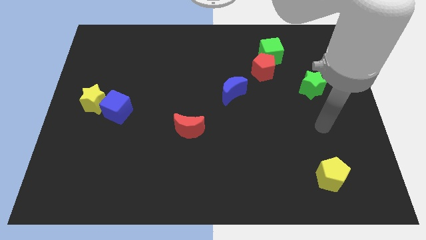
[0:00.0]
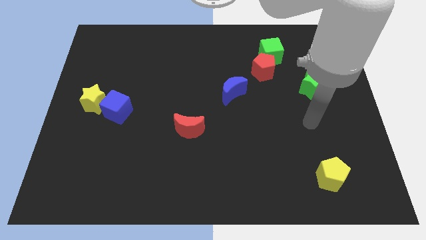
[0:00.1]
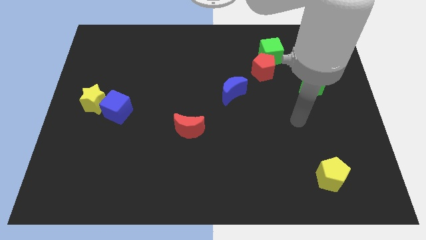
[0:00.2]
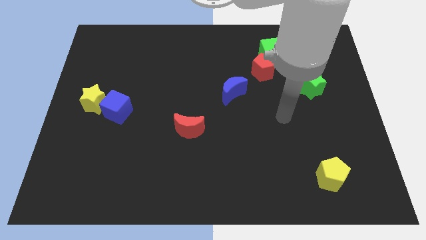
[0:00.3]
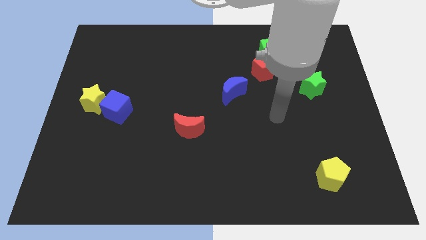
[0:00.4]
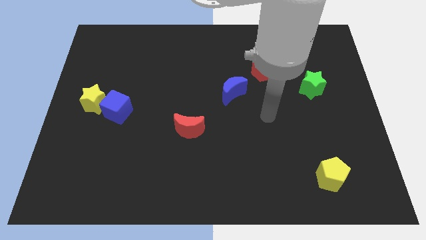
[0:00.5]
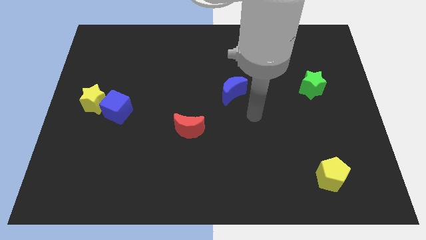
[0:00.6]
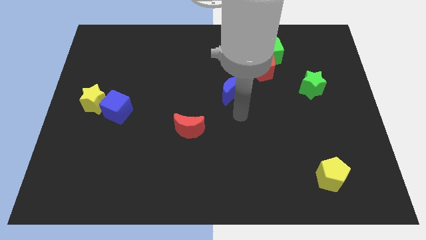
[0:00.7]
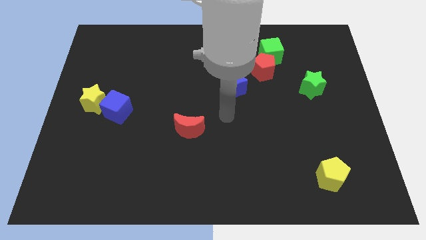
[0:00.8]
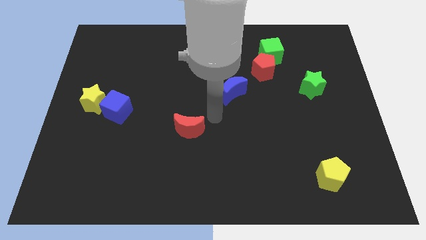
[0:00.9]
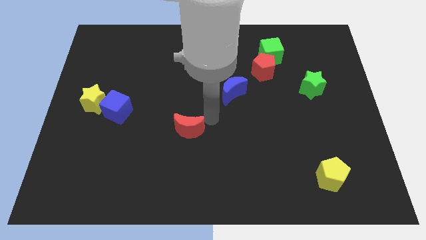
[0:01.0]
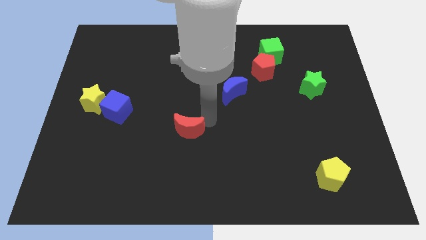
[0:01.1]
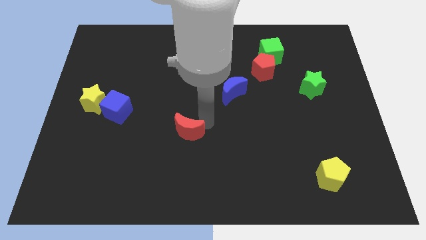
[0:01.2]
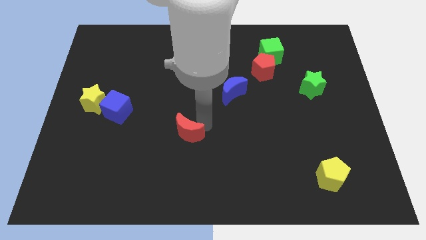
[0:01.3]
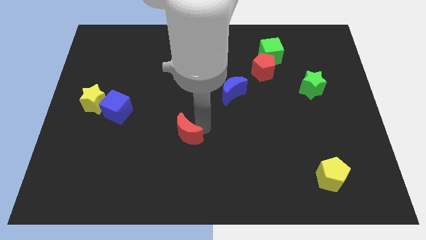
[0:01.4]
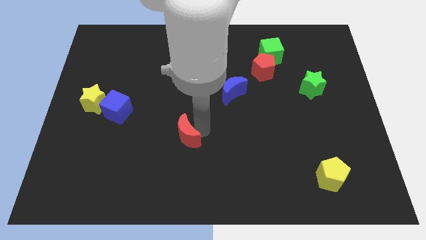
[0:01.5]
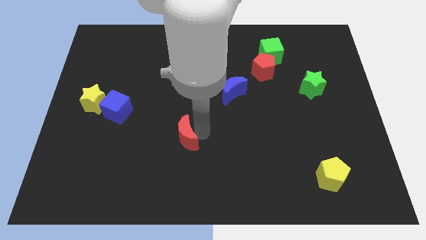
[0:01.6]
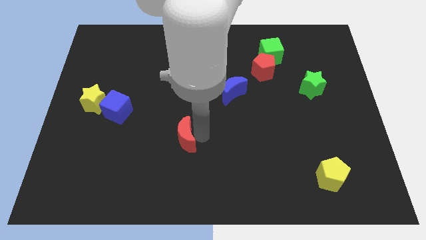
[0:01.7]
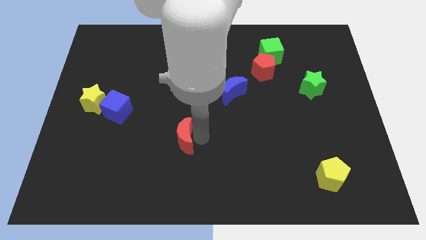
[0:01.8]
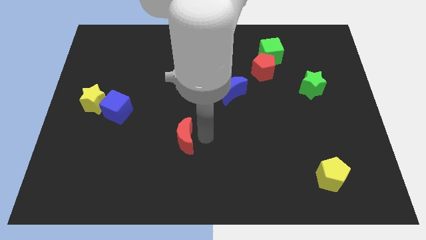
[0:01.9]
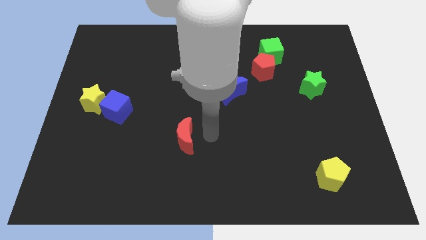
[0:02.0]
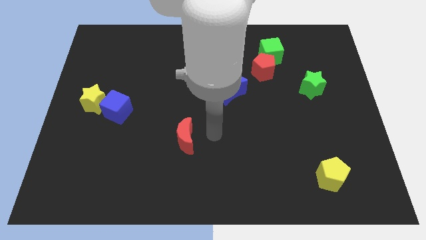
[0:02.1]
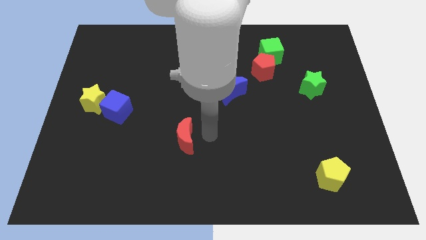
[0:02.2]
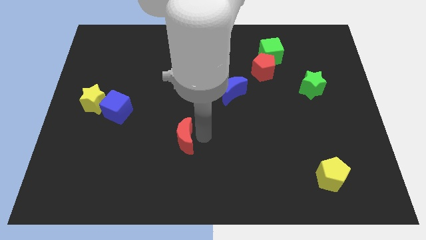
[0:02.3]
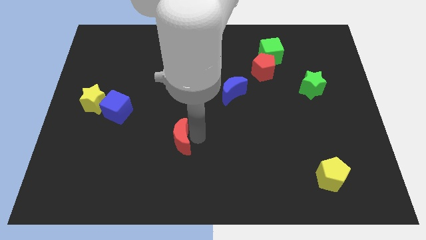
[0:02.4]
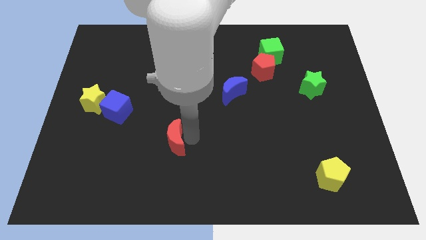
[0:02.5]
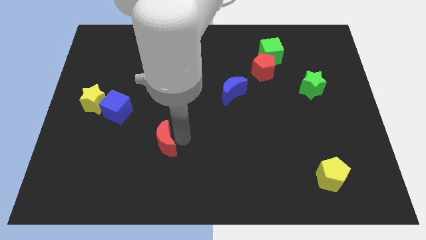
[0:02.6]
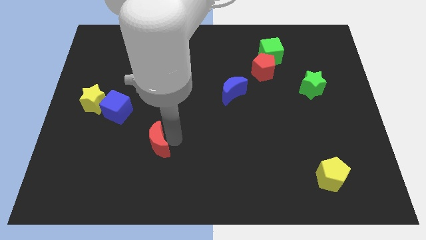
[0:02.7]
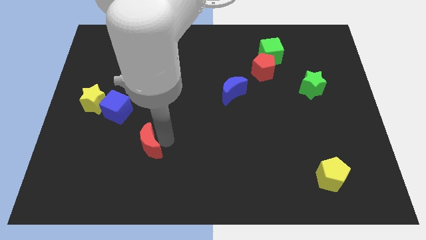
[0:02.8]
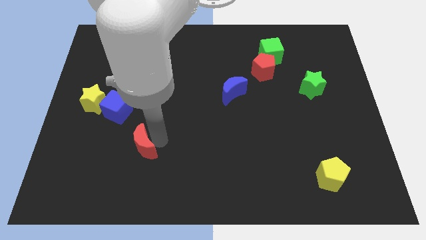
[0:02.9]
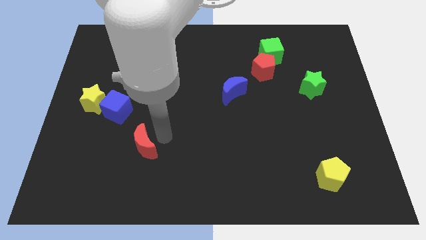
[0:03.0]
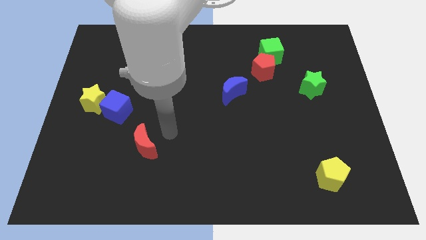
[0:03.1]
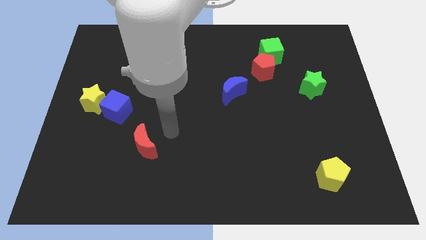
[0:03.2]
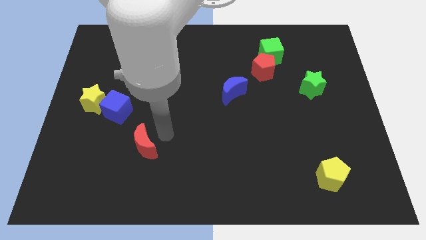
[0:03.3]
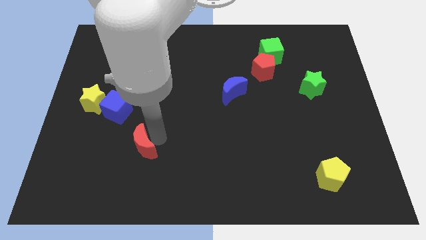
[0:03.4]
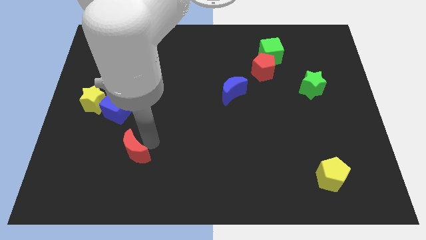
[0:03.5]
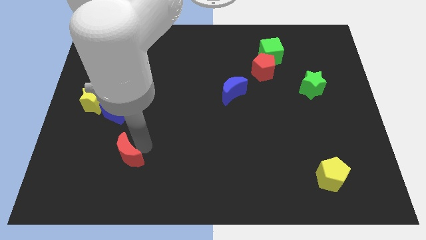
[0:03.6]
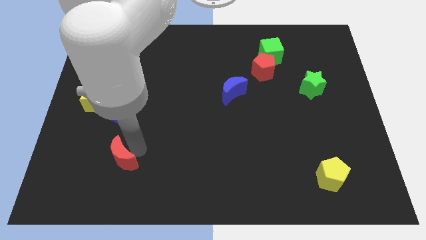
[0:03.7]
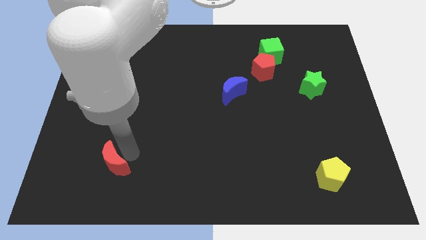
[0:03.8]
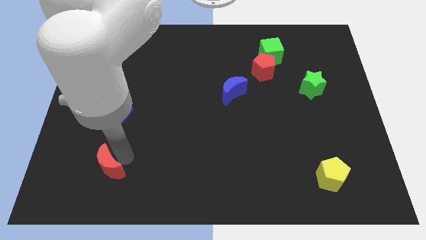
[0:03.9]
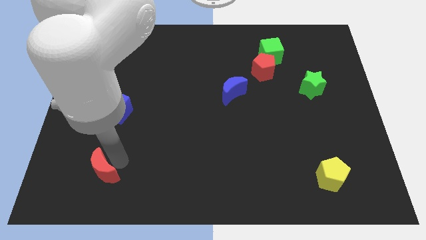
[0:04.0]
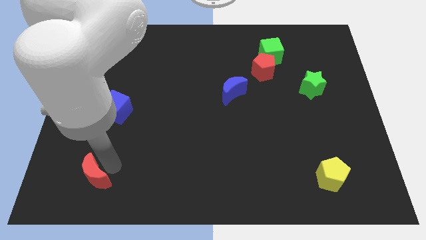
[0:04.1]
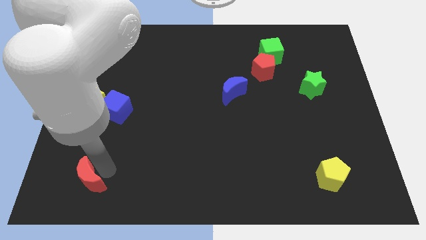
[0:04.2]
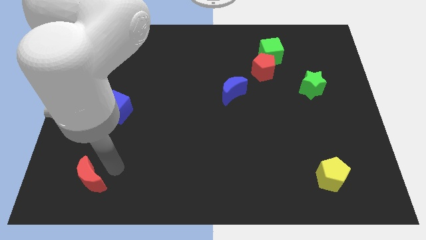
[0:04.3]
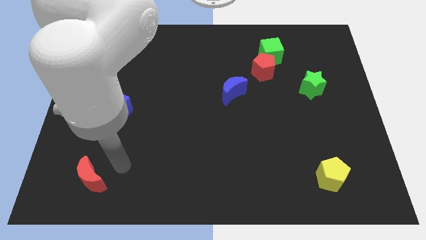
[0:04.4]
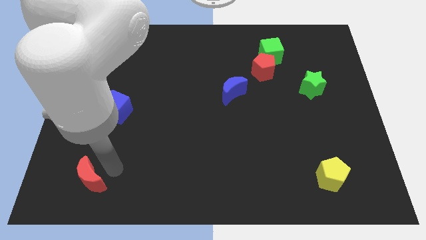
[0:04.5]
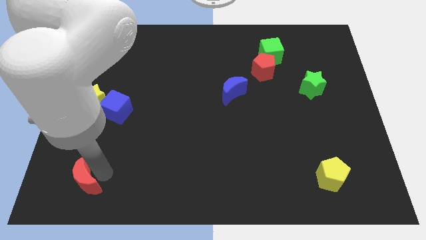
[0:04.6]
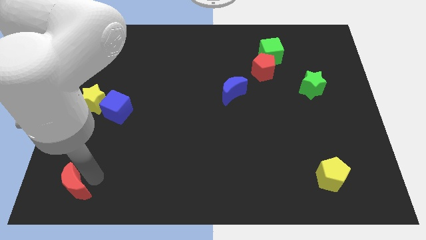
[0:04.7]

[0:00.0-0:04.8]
move the red moon to the bottom left corner

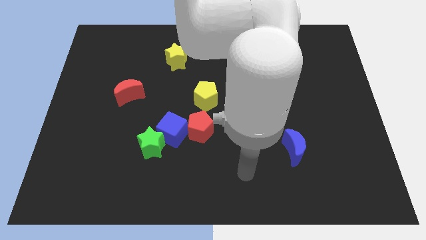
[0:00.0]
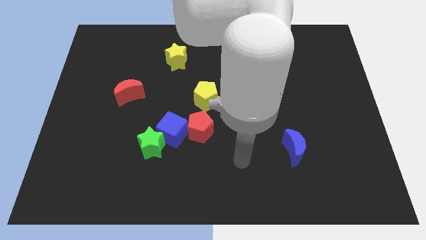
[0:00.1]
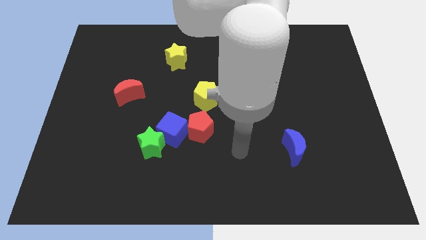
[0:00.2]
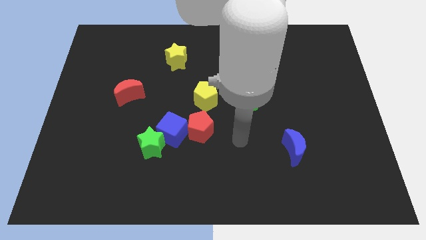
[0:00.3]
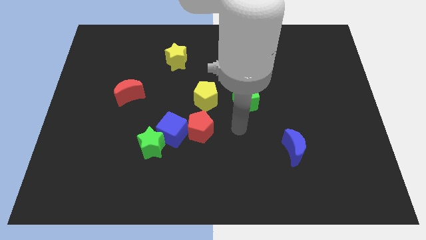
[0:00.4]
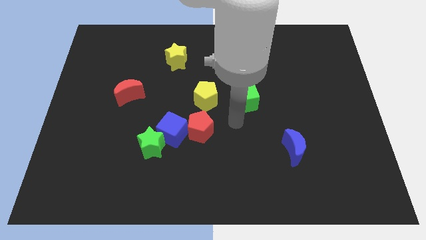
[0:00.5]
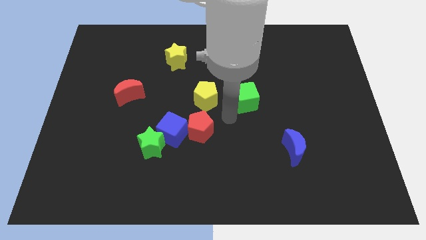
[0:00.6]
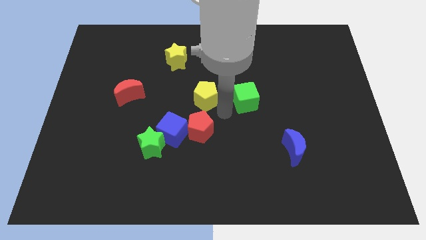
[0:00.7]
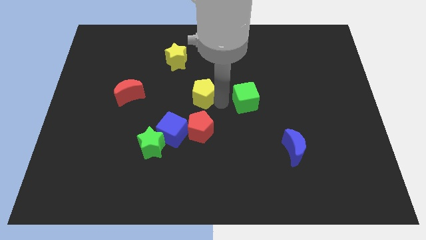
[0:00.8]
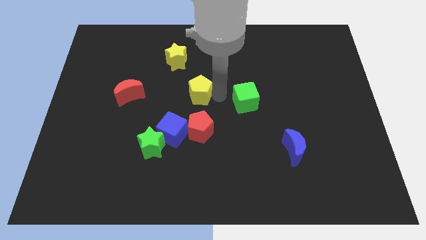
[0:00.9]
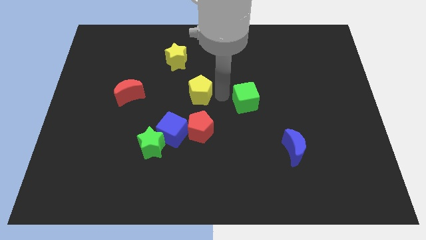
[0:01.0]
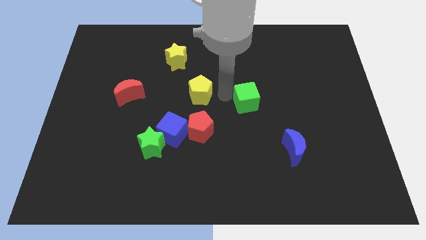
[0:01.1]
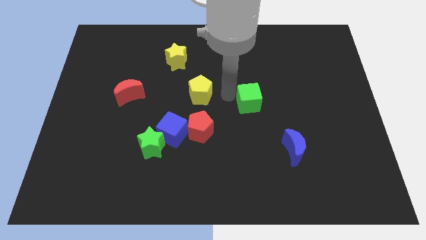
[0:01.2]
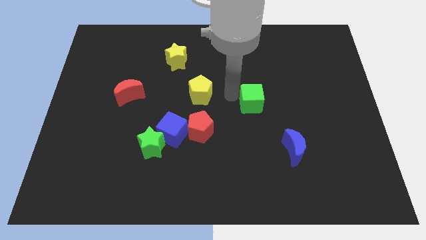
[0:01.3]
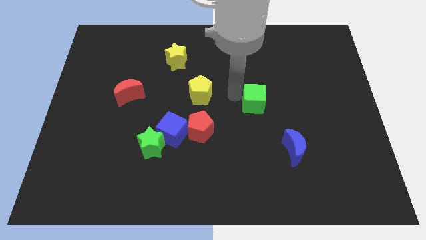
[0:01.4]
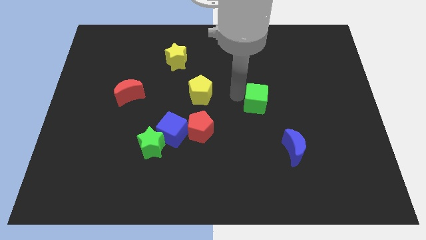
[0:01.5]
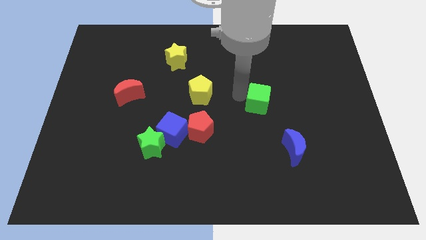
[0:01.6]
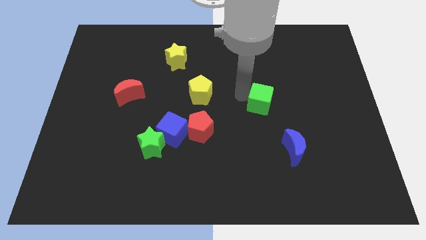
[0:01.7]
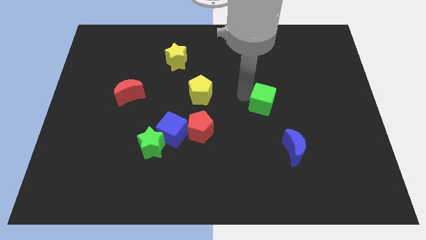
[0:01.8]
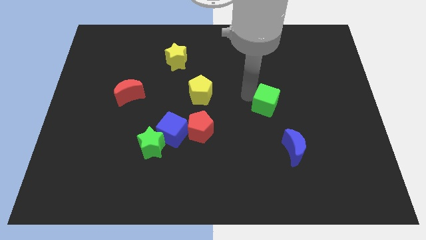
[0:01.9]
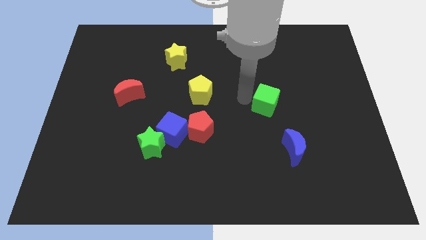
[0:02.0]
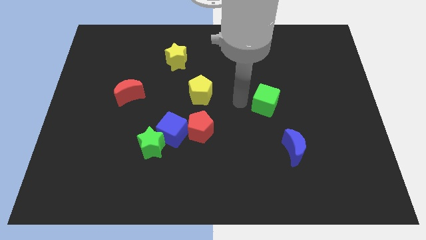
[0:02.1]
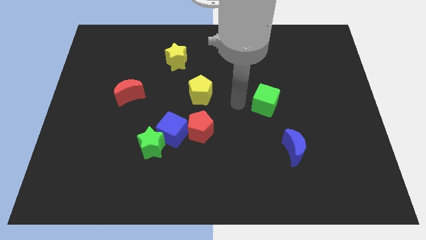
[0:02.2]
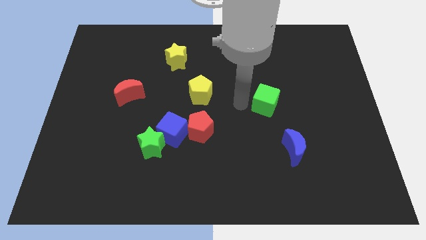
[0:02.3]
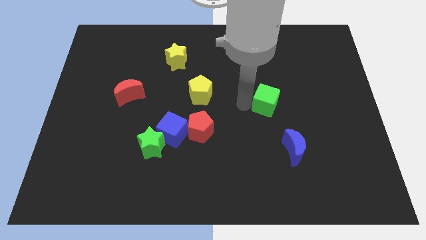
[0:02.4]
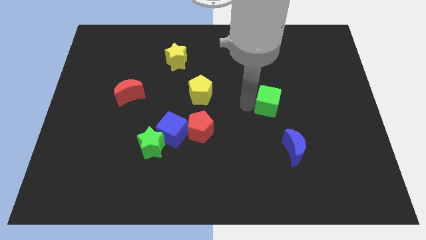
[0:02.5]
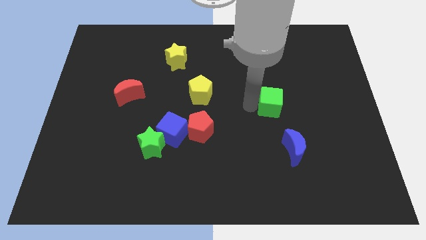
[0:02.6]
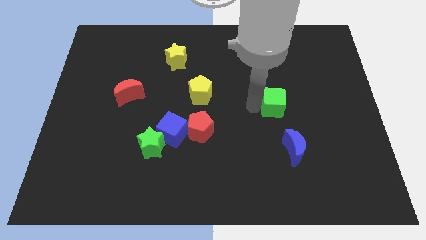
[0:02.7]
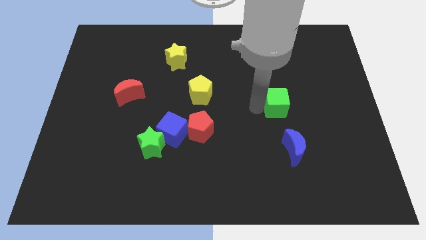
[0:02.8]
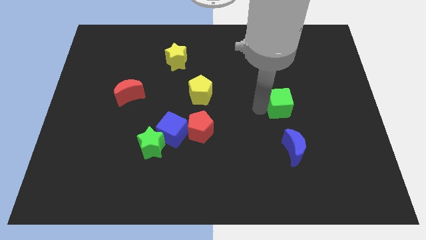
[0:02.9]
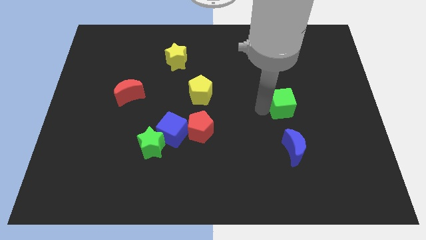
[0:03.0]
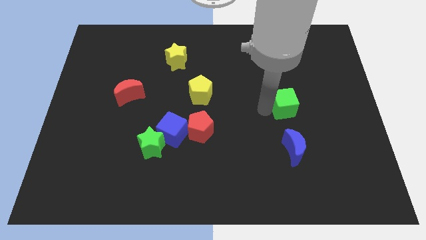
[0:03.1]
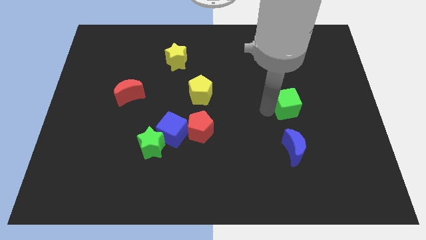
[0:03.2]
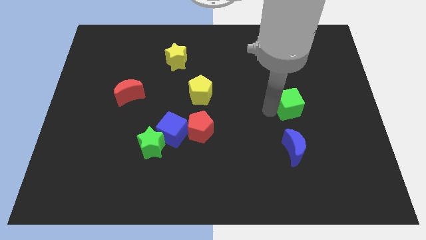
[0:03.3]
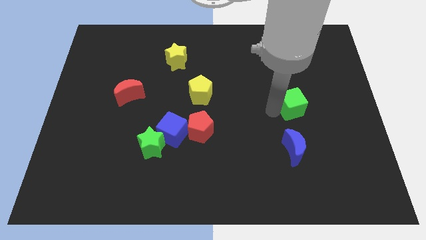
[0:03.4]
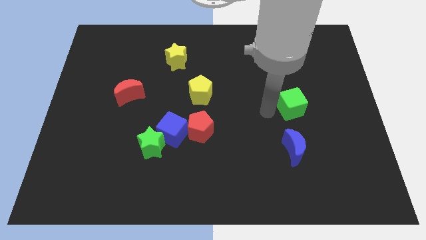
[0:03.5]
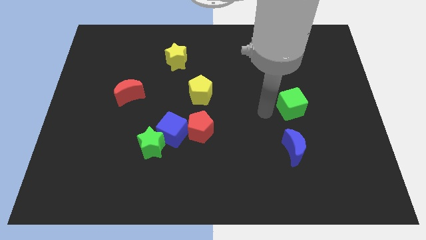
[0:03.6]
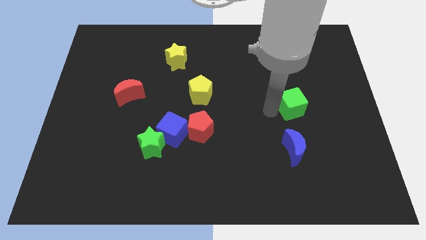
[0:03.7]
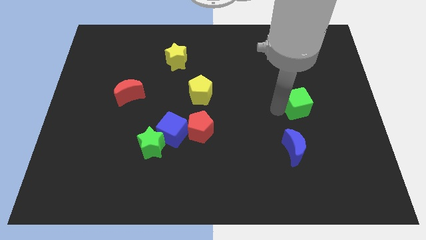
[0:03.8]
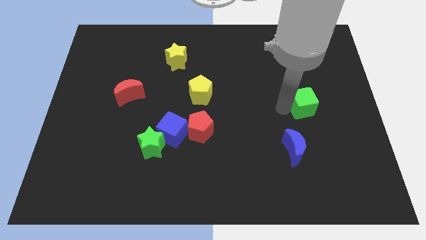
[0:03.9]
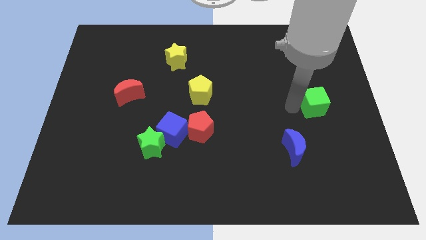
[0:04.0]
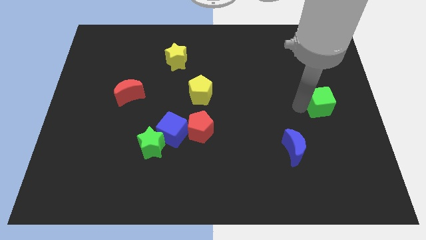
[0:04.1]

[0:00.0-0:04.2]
push the green cube to the center right
